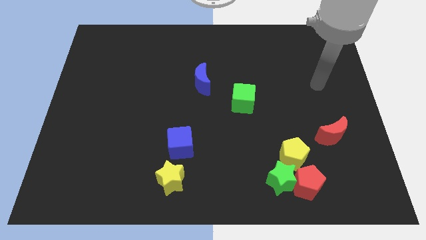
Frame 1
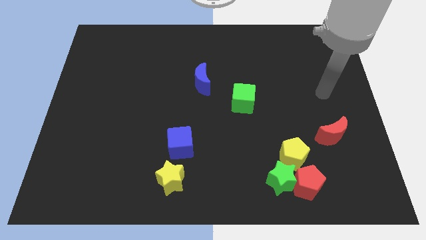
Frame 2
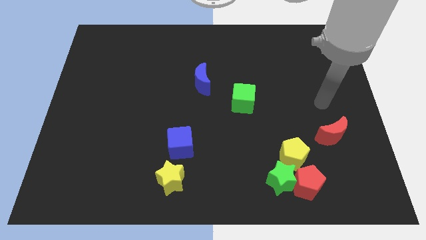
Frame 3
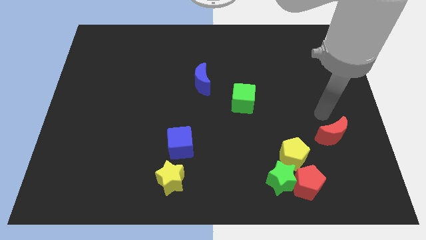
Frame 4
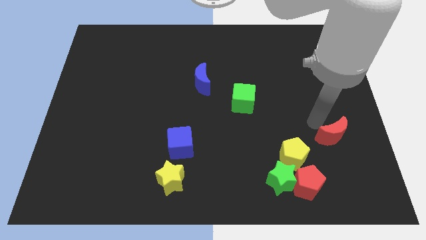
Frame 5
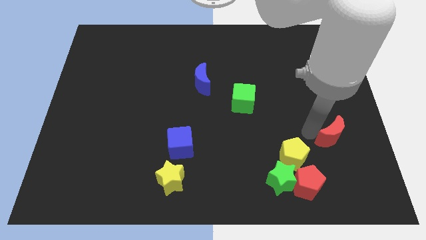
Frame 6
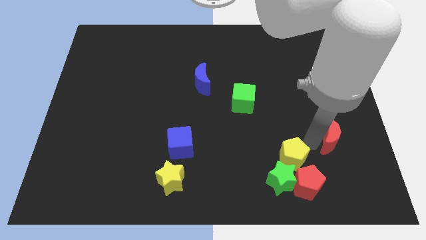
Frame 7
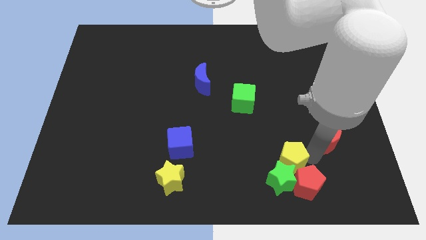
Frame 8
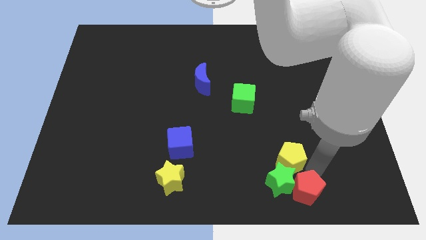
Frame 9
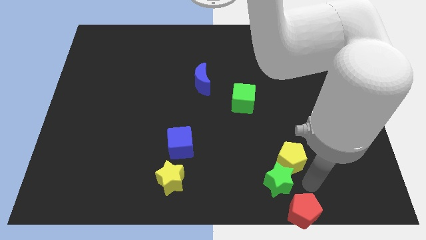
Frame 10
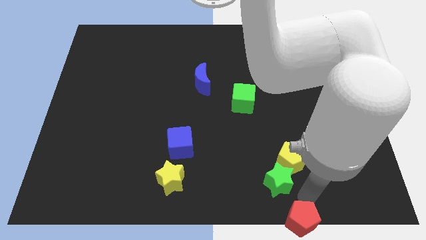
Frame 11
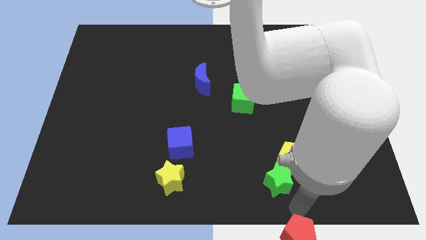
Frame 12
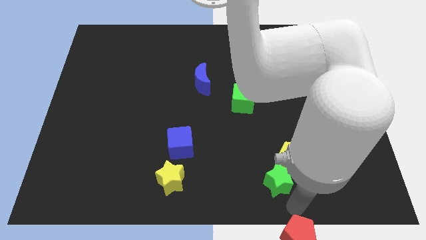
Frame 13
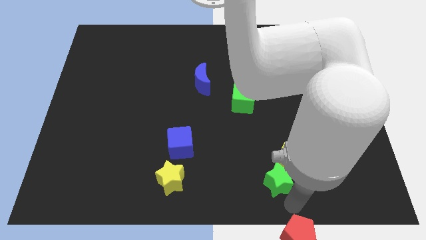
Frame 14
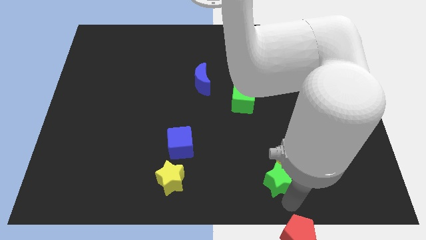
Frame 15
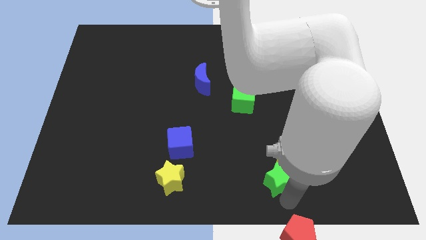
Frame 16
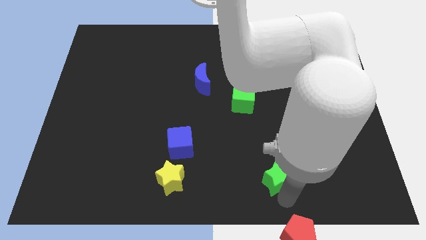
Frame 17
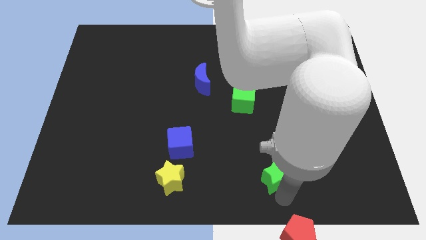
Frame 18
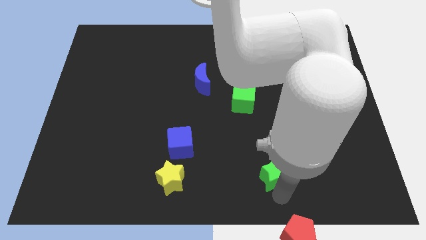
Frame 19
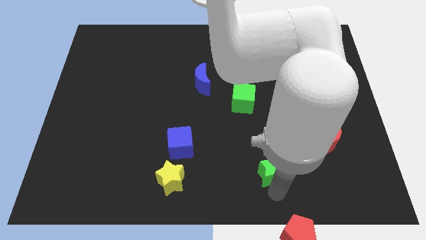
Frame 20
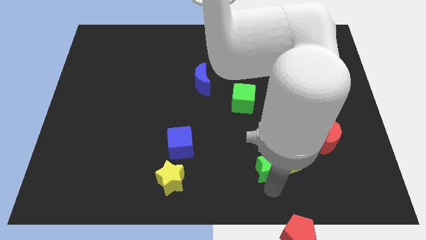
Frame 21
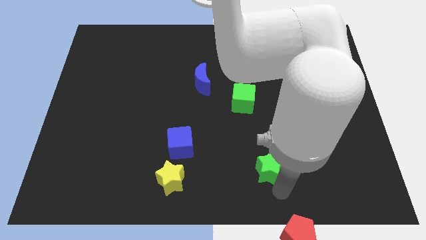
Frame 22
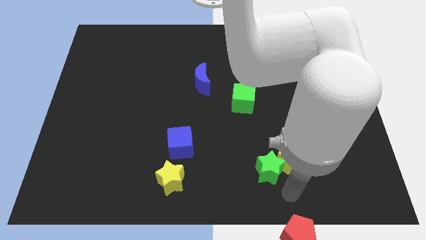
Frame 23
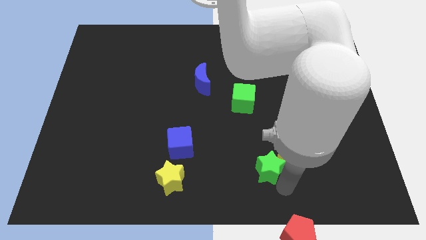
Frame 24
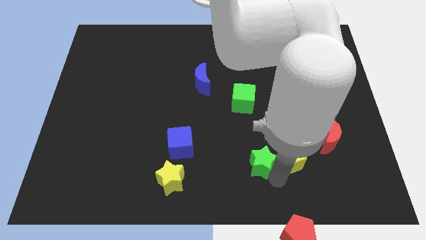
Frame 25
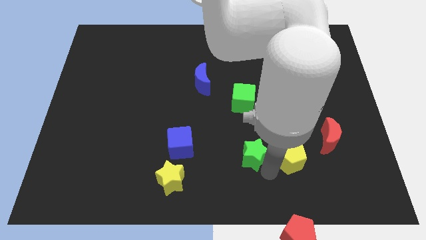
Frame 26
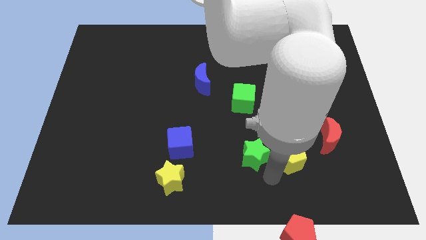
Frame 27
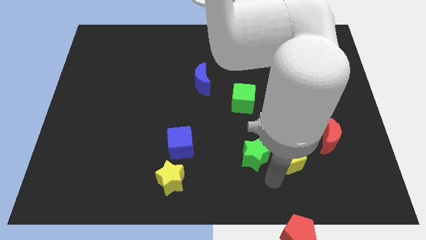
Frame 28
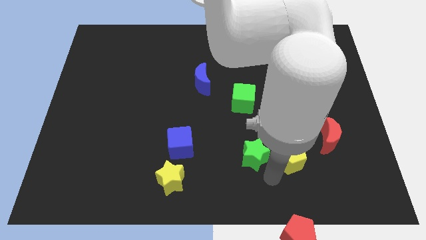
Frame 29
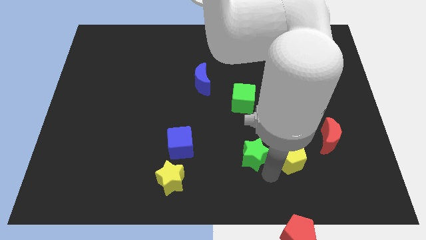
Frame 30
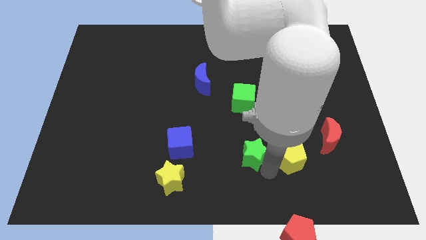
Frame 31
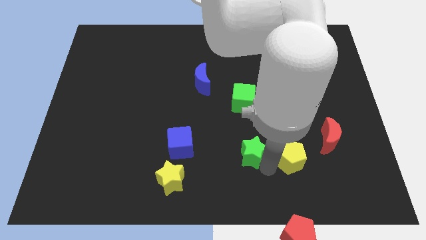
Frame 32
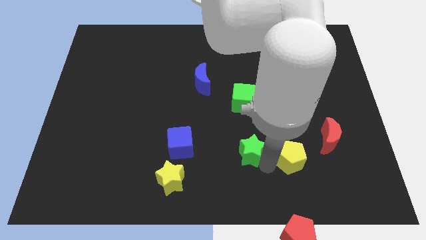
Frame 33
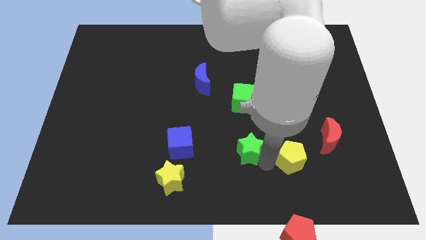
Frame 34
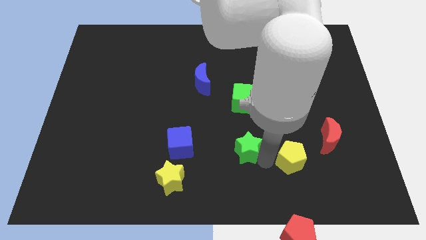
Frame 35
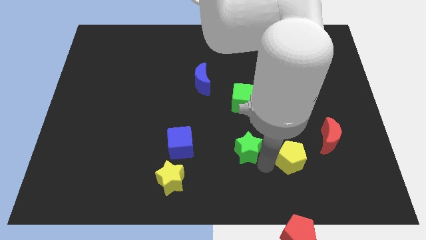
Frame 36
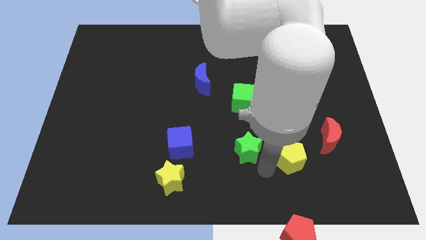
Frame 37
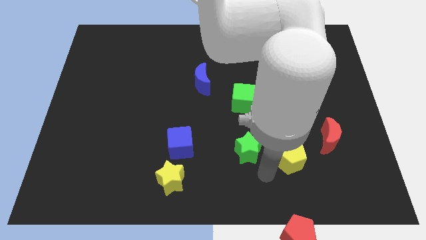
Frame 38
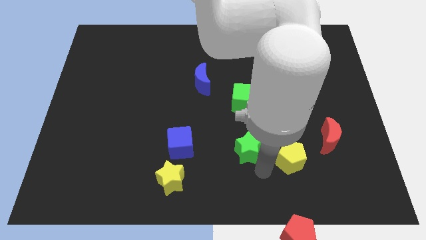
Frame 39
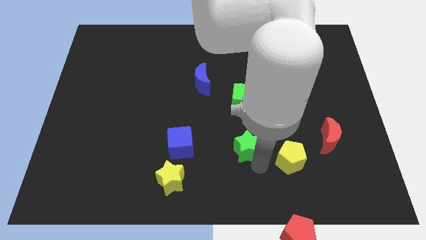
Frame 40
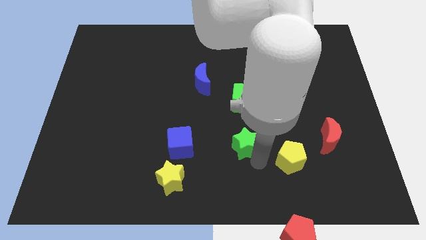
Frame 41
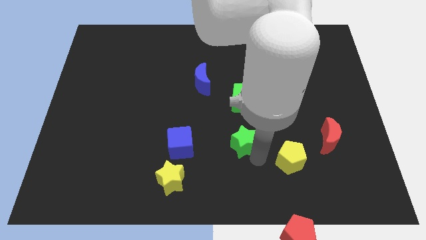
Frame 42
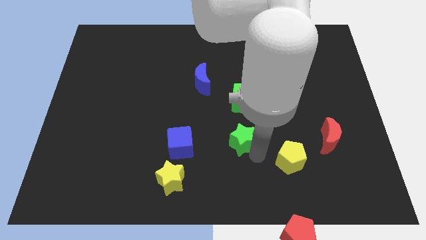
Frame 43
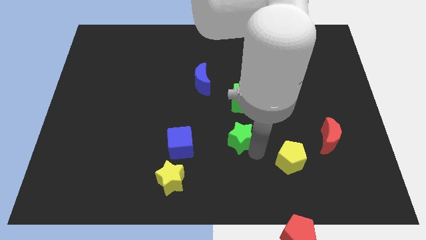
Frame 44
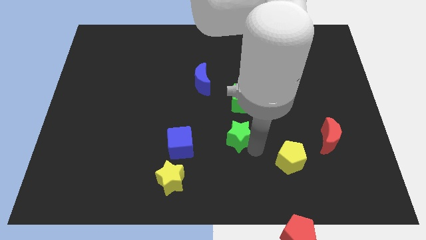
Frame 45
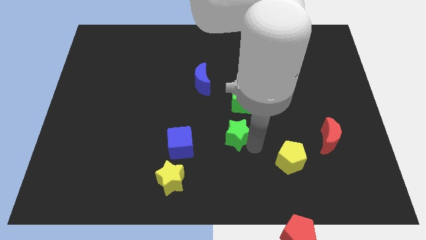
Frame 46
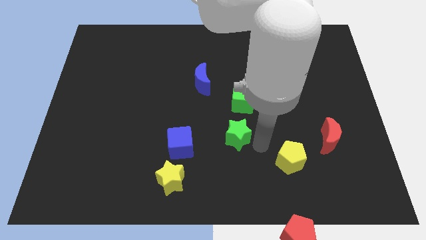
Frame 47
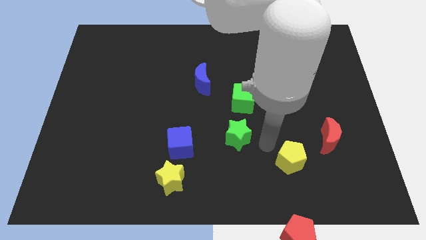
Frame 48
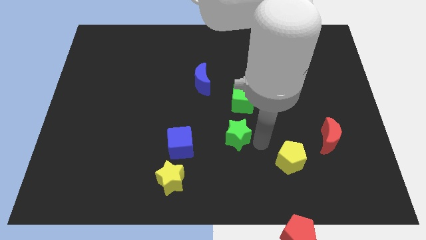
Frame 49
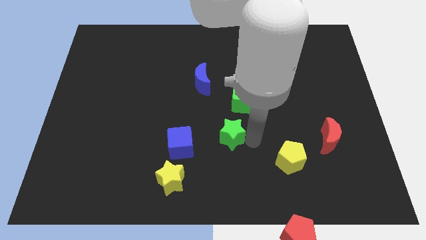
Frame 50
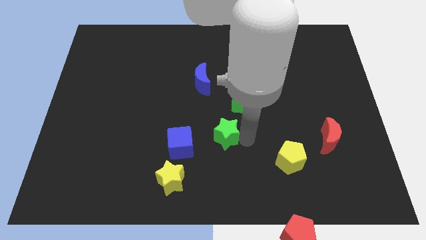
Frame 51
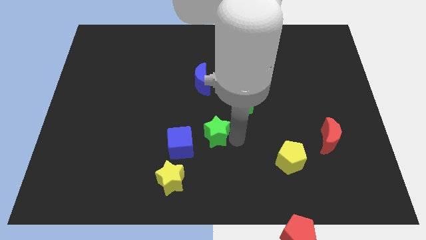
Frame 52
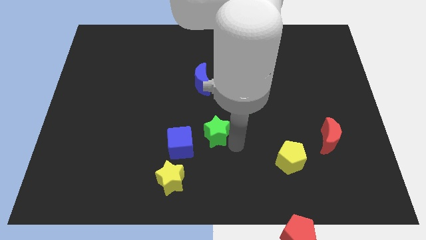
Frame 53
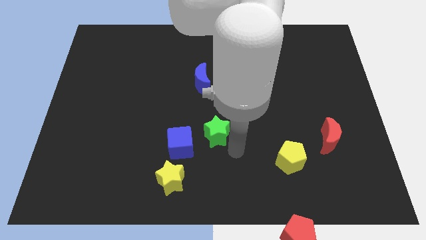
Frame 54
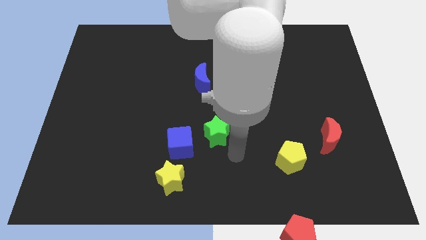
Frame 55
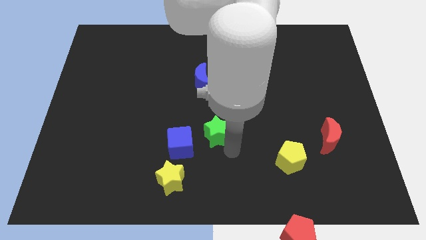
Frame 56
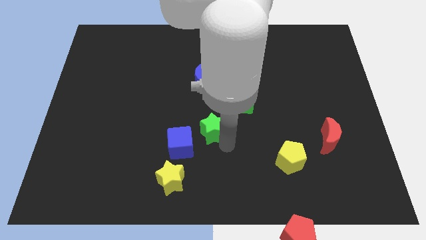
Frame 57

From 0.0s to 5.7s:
push the green star below the blue moon

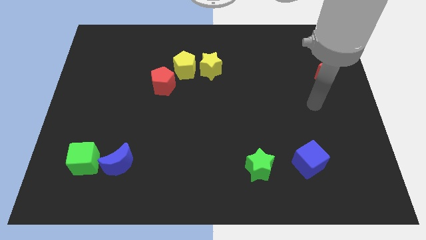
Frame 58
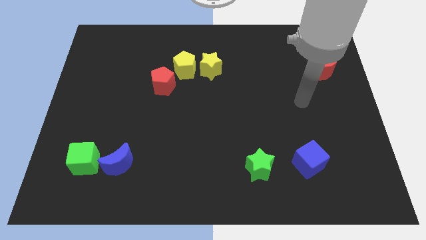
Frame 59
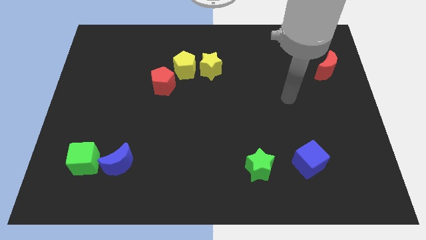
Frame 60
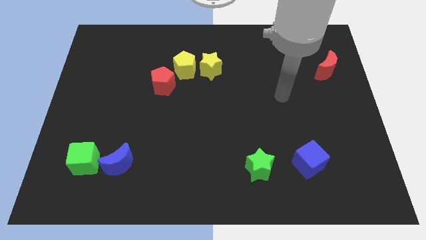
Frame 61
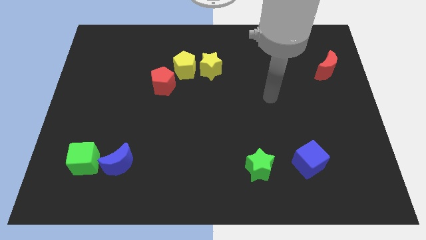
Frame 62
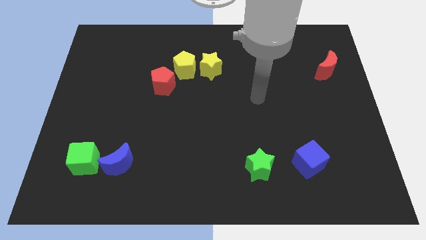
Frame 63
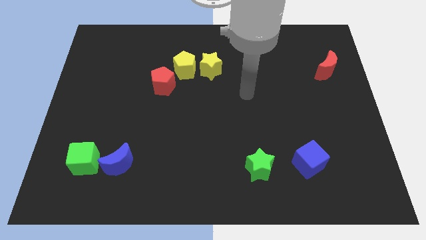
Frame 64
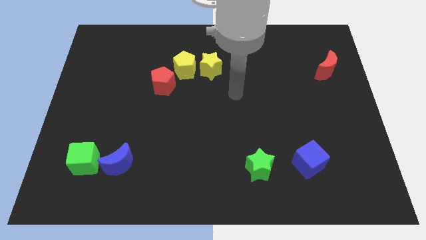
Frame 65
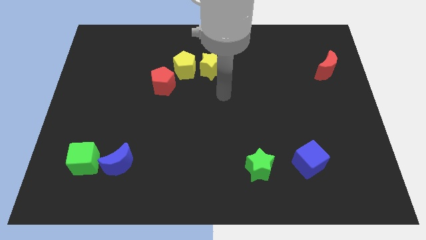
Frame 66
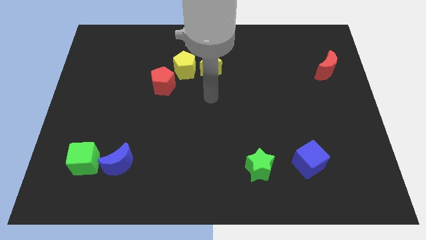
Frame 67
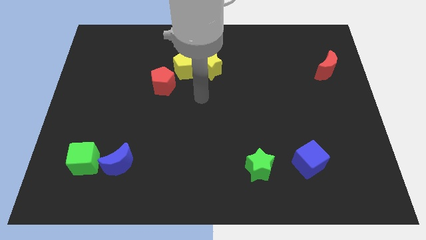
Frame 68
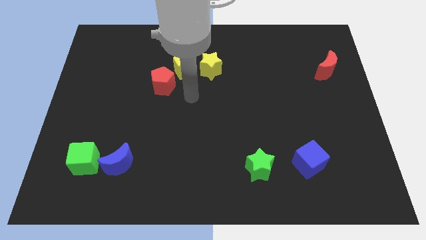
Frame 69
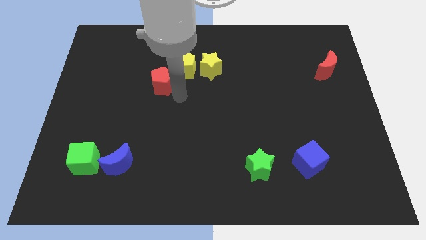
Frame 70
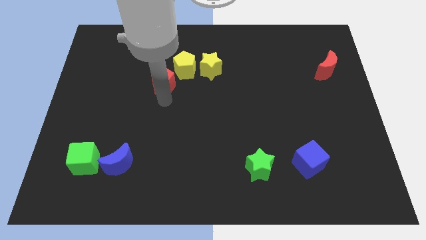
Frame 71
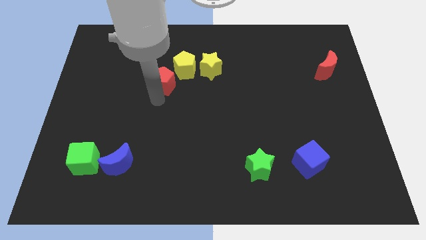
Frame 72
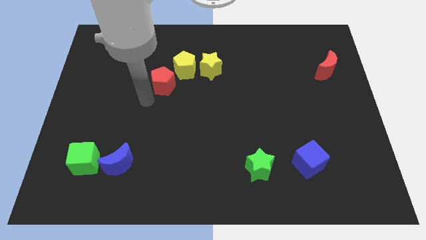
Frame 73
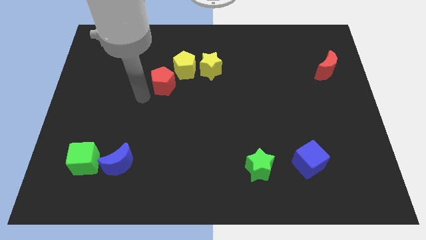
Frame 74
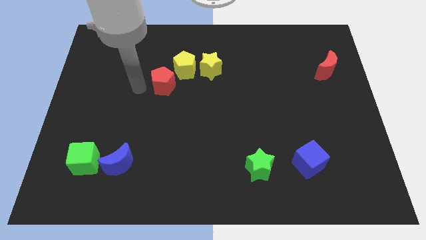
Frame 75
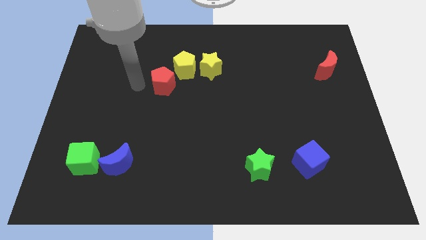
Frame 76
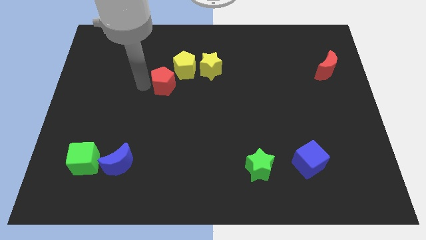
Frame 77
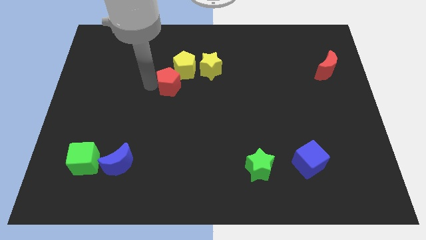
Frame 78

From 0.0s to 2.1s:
put the red pentagon to the bottom left side of the yellow star
